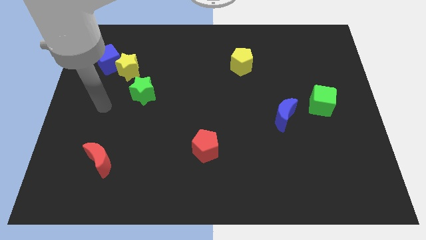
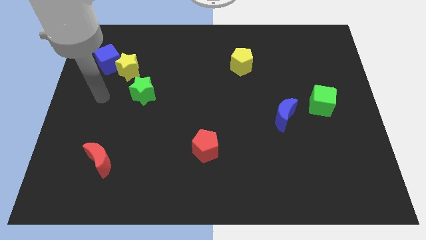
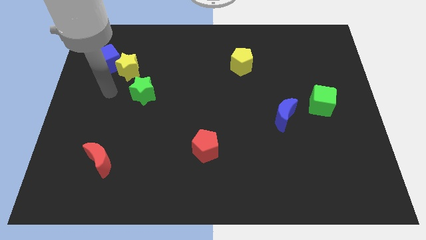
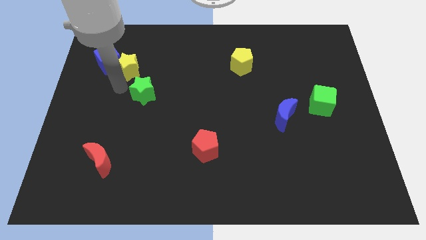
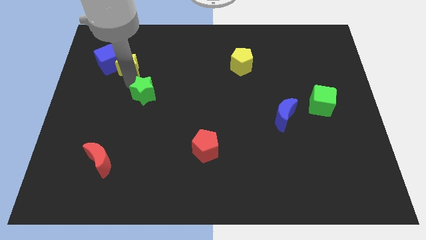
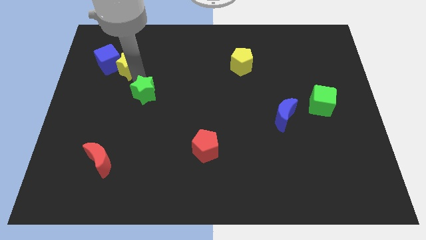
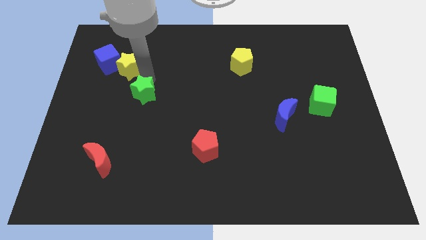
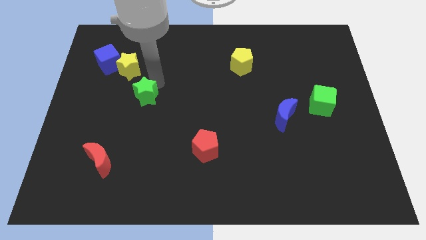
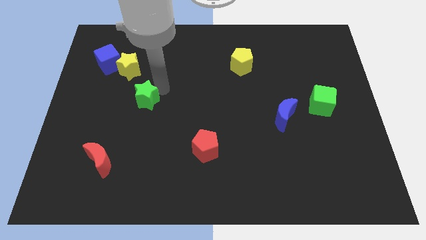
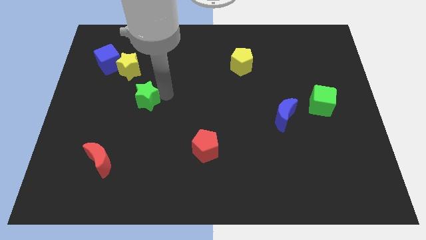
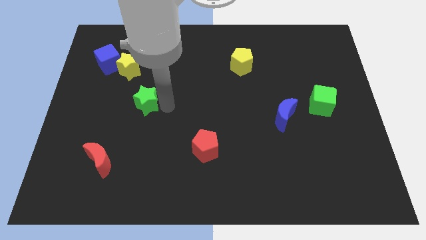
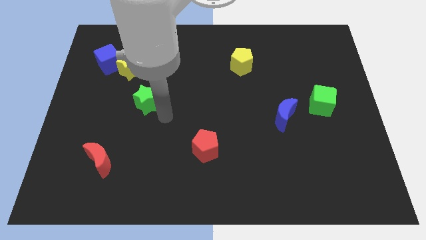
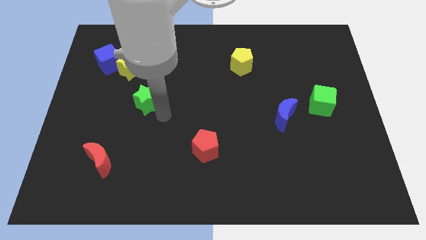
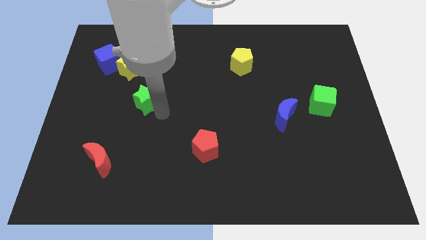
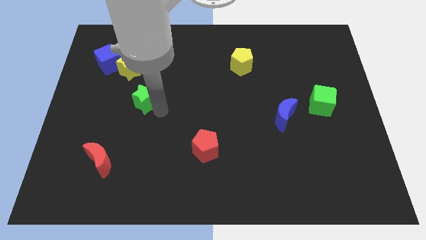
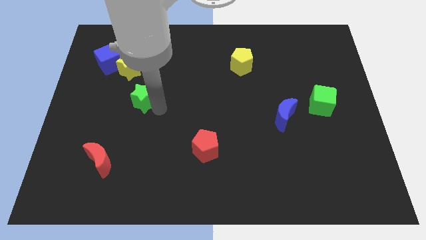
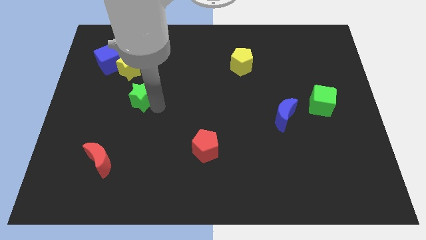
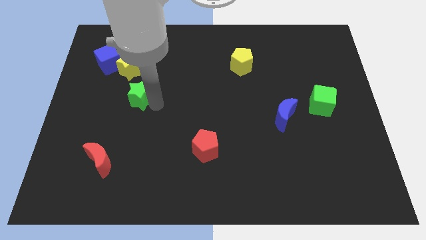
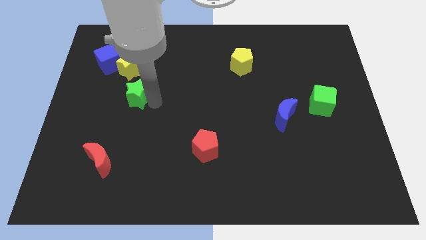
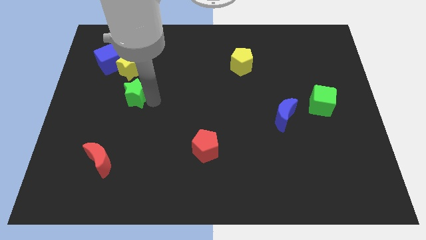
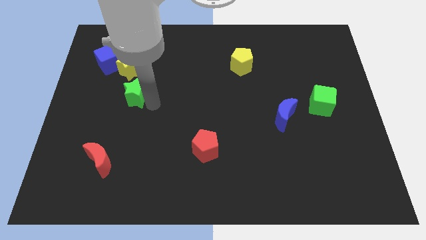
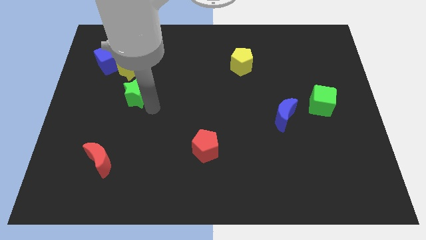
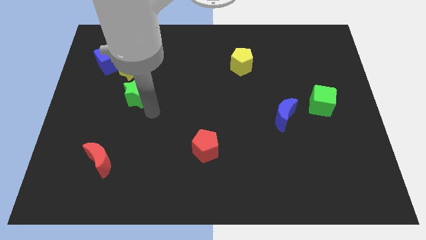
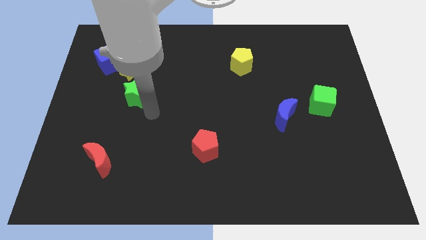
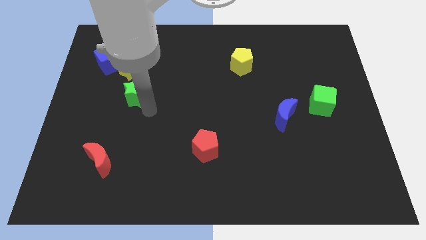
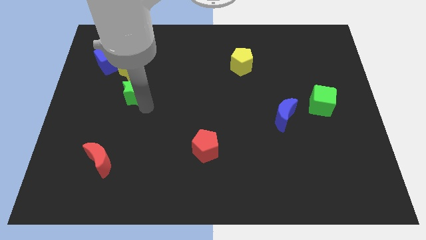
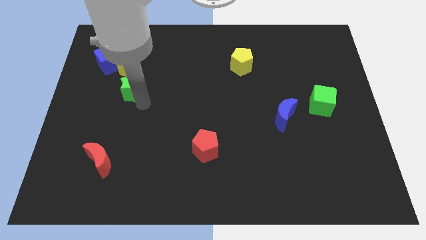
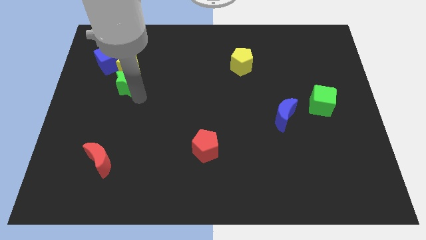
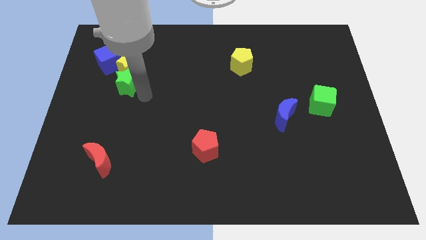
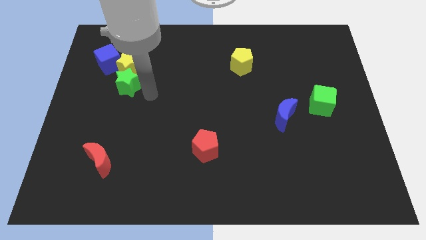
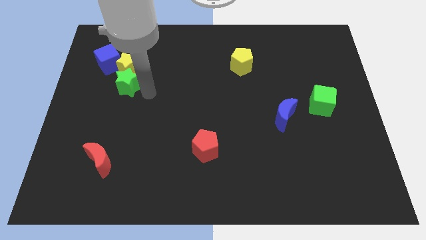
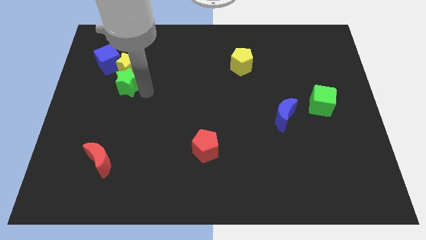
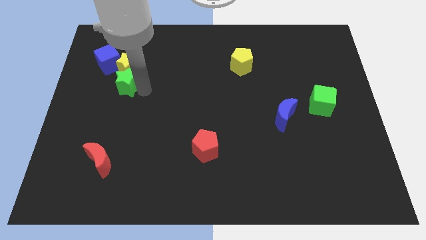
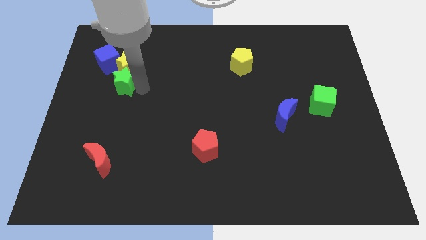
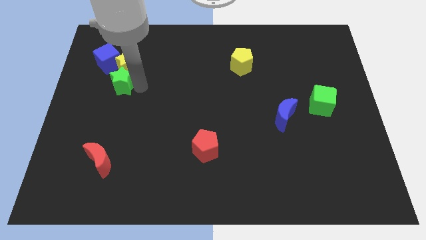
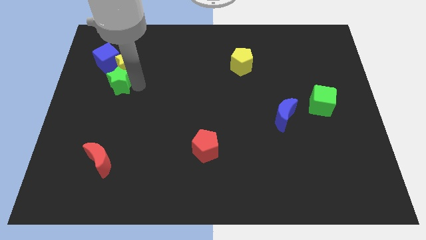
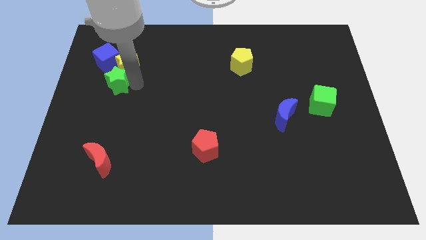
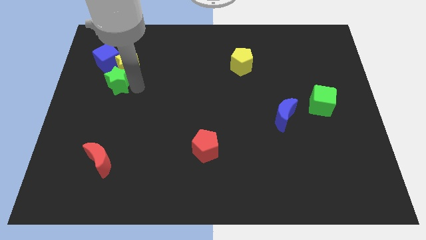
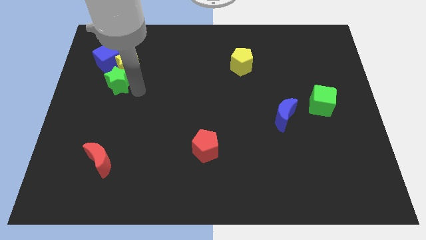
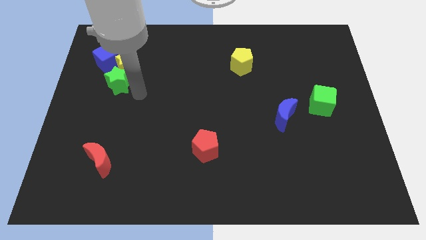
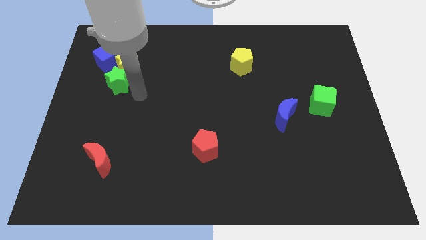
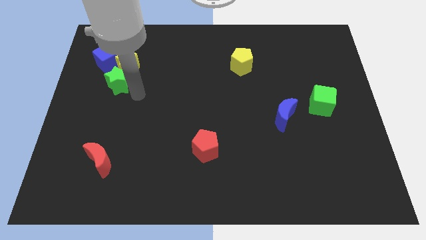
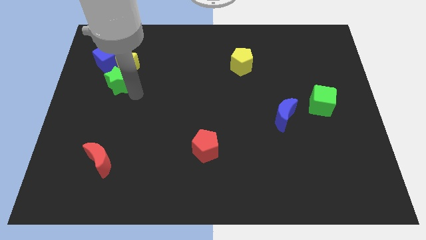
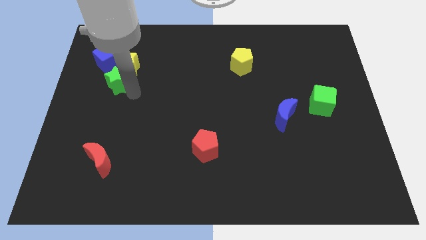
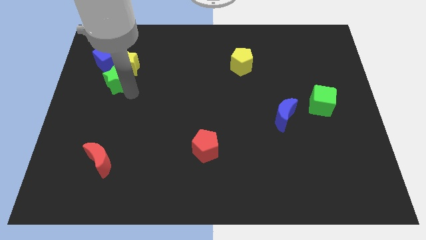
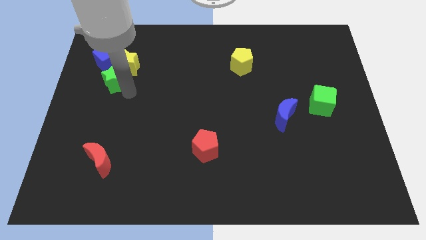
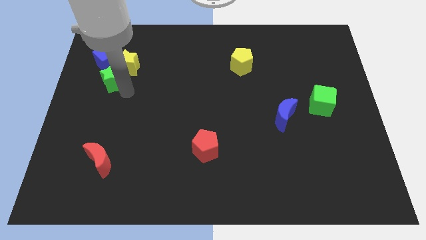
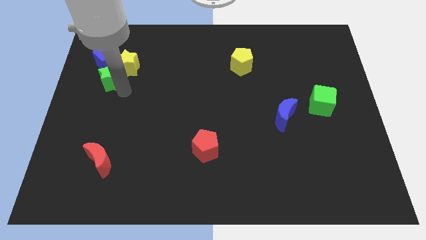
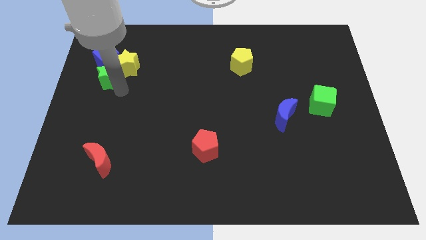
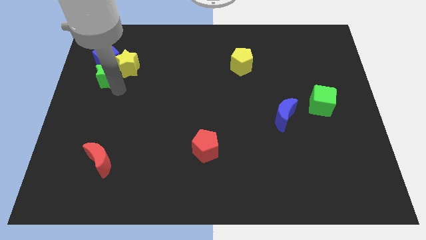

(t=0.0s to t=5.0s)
move the green star close to the blue cube

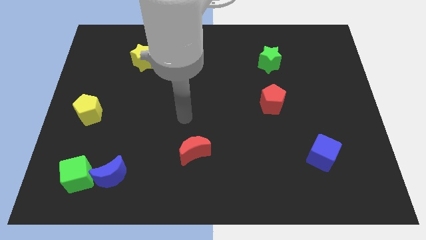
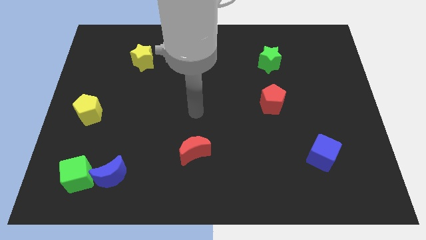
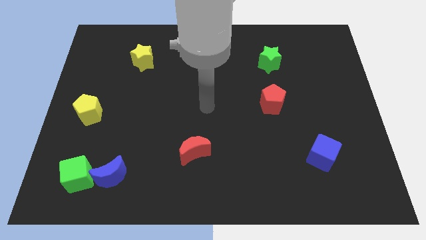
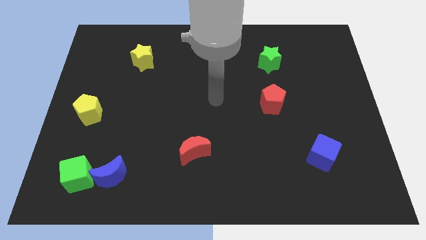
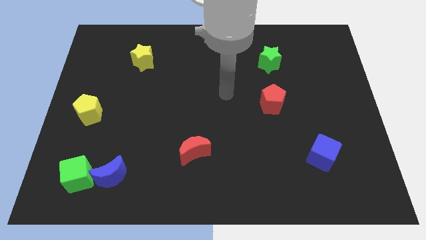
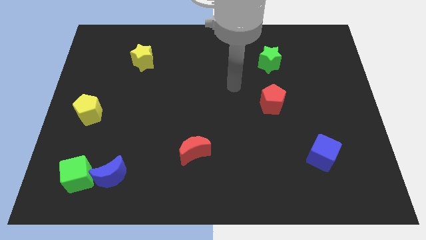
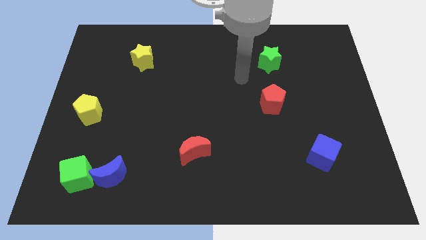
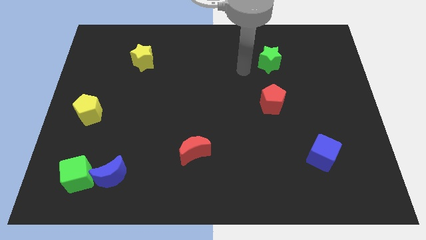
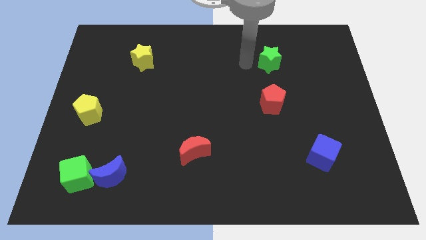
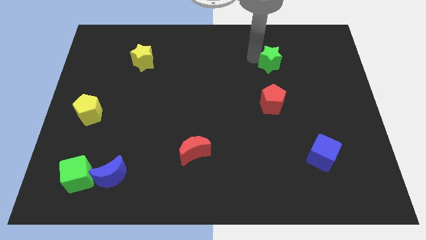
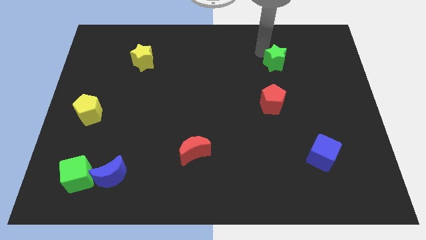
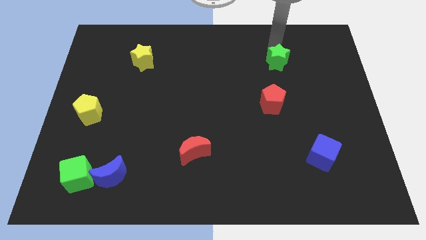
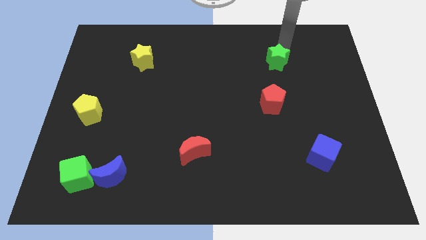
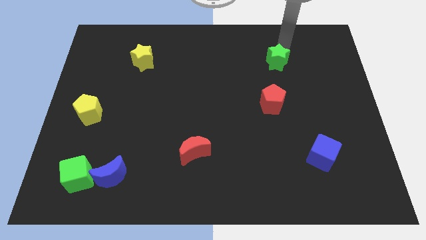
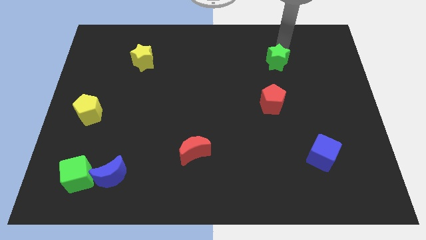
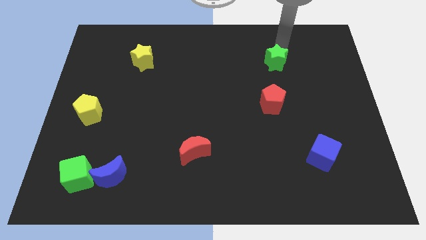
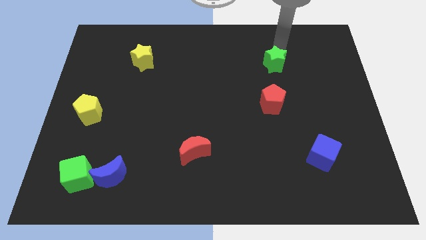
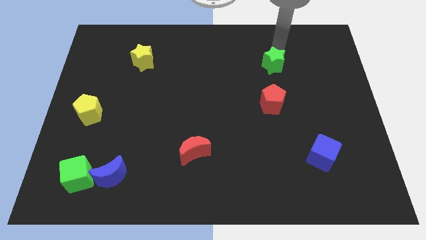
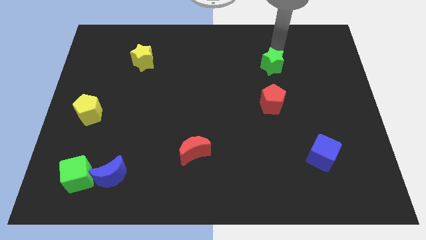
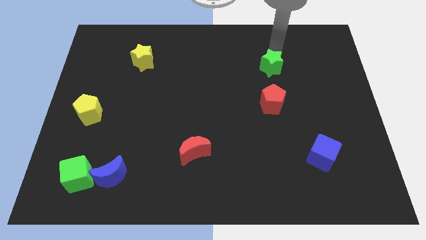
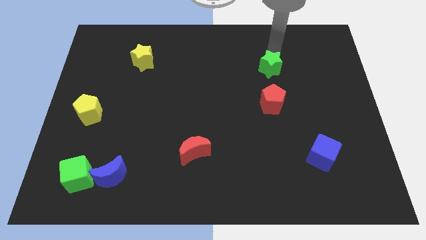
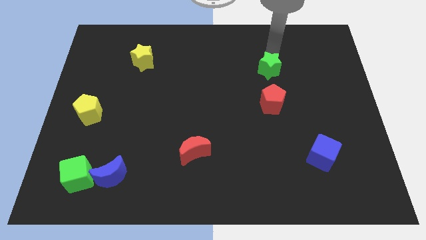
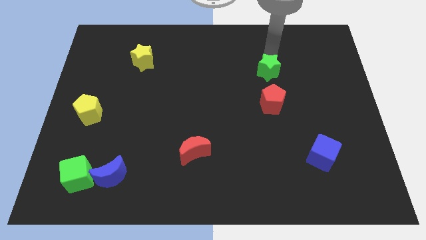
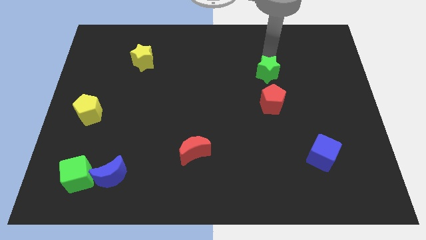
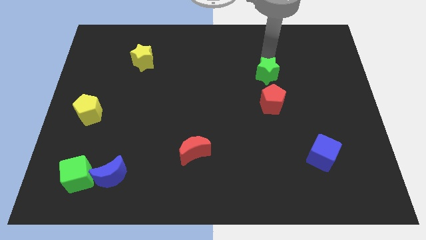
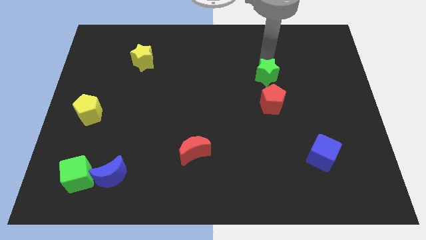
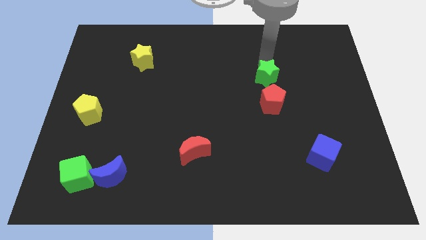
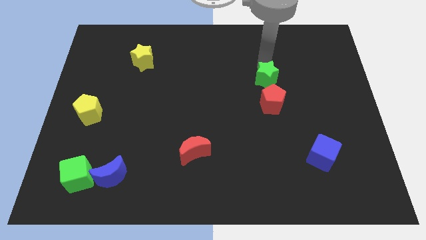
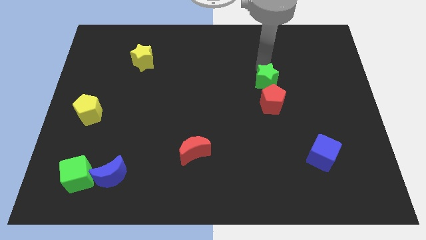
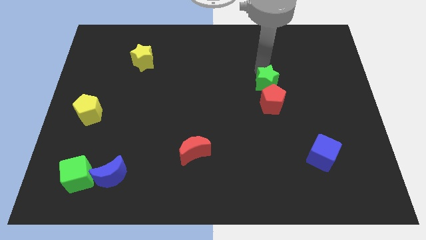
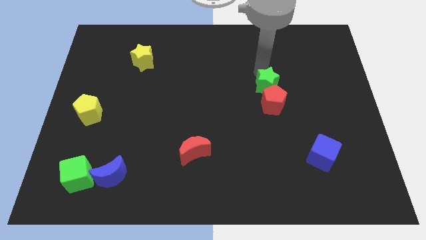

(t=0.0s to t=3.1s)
move the green star close to the red pentagon
